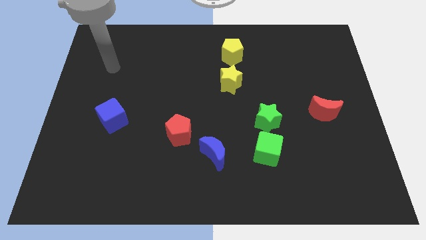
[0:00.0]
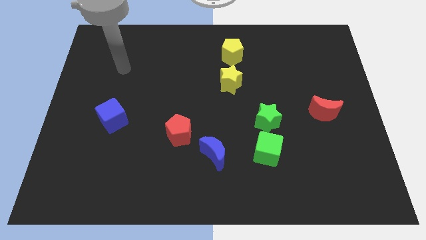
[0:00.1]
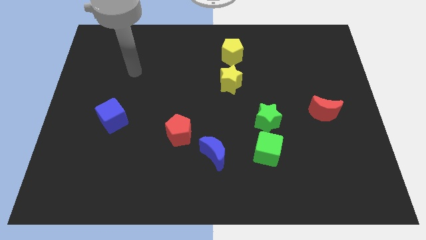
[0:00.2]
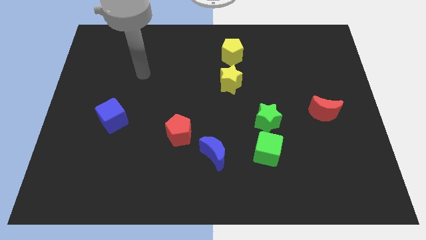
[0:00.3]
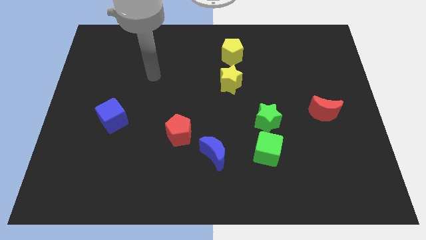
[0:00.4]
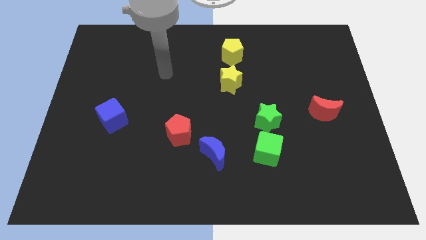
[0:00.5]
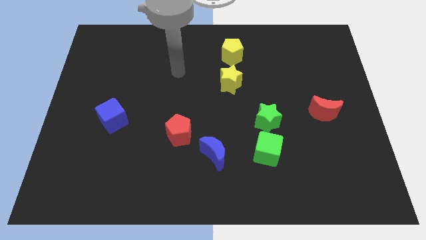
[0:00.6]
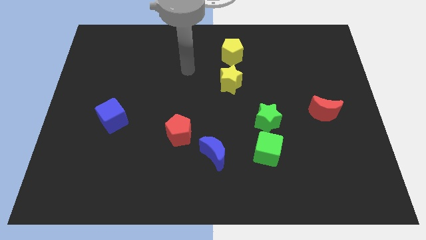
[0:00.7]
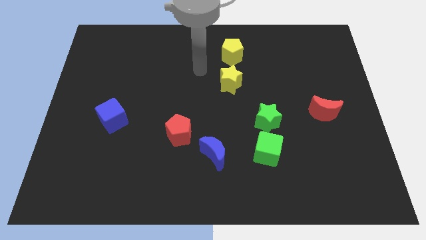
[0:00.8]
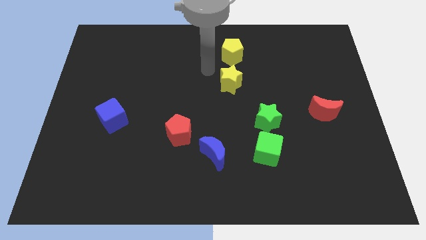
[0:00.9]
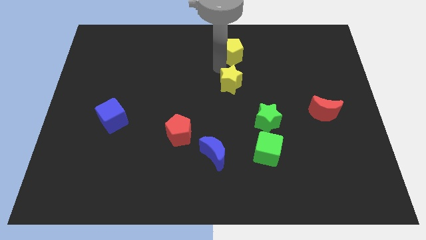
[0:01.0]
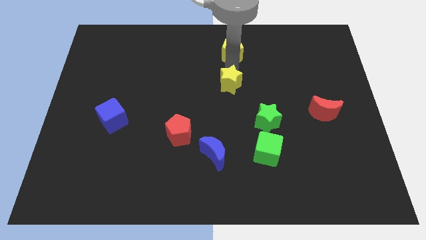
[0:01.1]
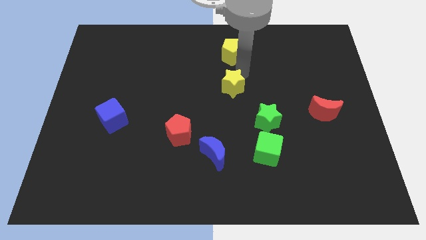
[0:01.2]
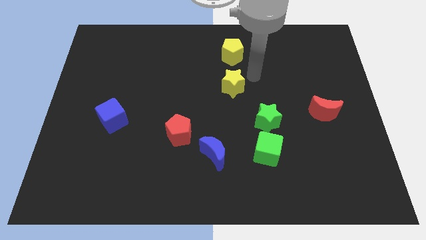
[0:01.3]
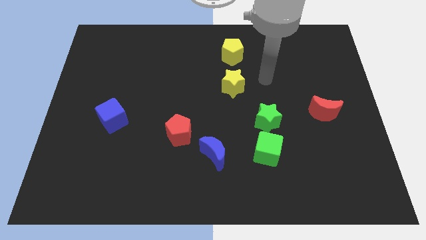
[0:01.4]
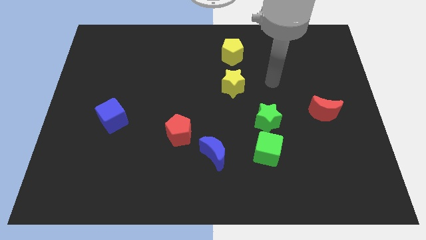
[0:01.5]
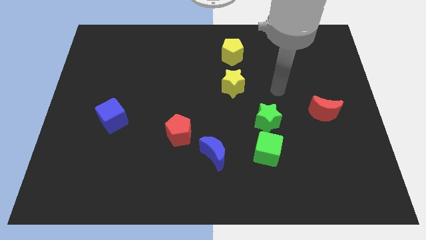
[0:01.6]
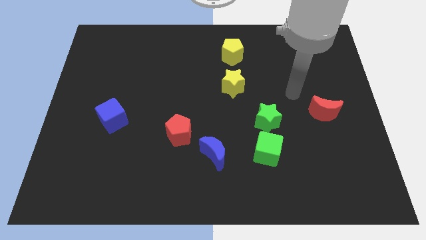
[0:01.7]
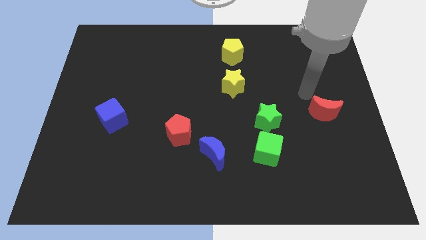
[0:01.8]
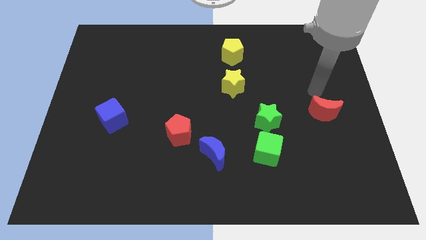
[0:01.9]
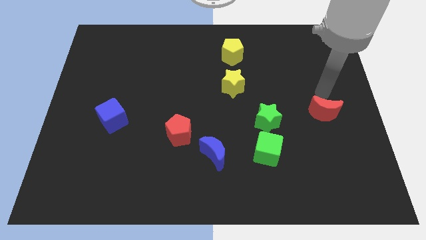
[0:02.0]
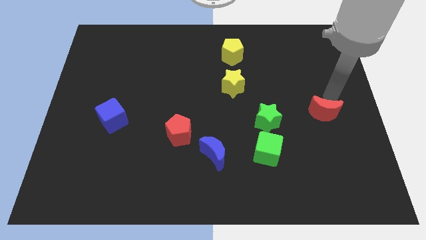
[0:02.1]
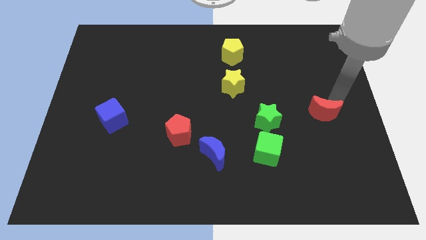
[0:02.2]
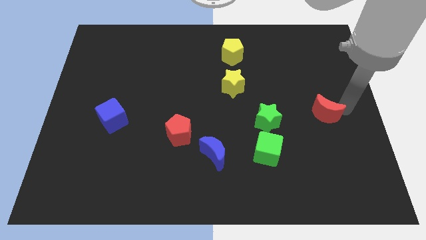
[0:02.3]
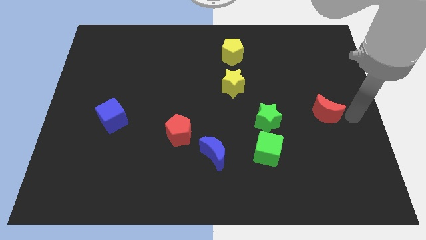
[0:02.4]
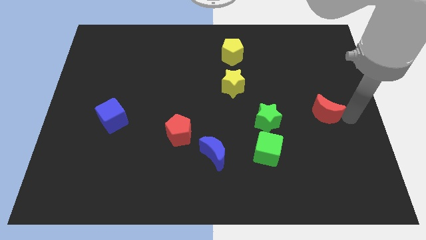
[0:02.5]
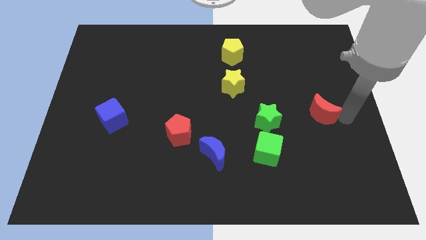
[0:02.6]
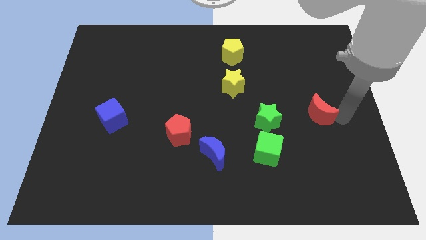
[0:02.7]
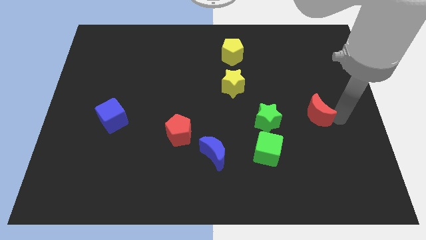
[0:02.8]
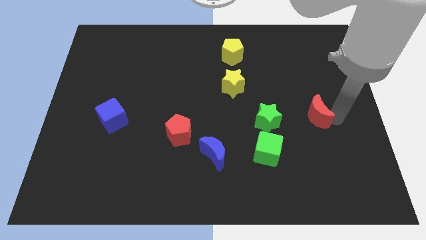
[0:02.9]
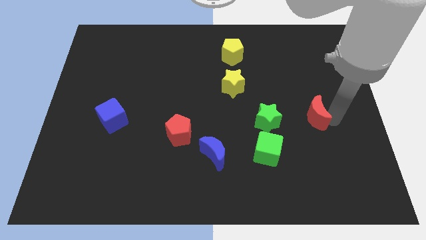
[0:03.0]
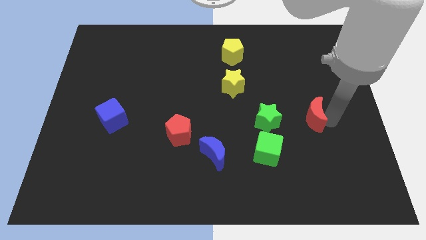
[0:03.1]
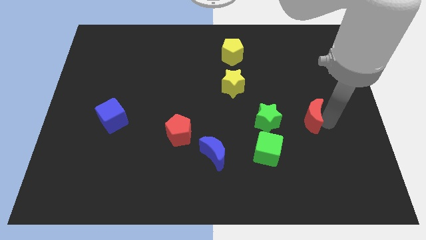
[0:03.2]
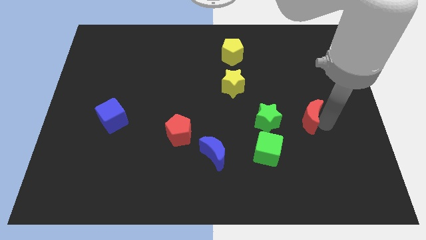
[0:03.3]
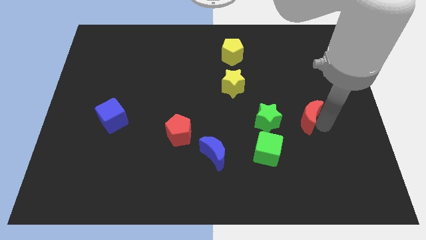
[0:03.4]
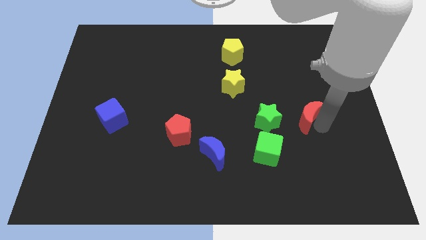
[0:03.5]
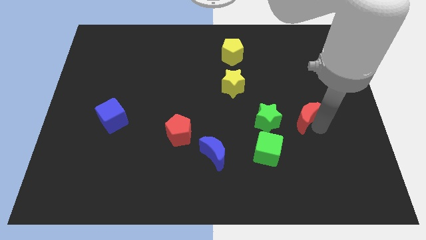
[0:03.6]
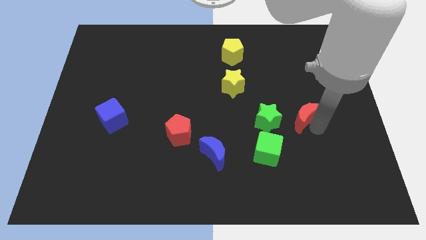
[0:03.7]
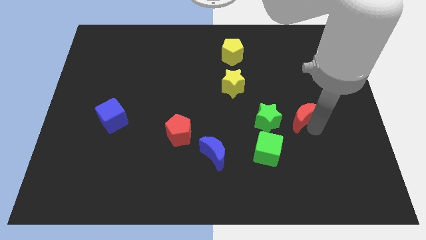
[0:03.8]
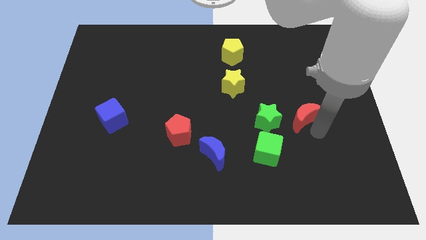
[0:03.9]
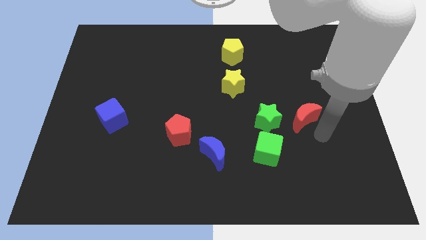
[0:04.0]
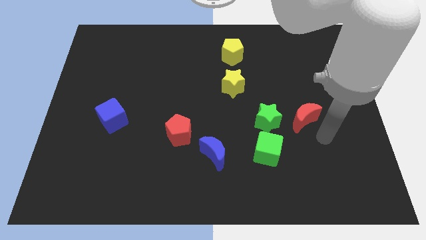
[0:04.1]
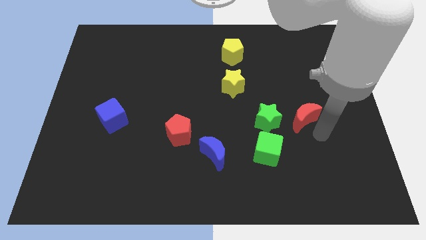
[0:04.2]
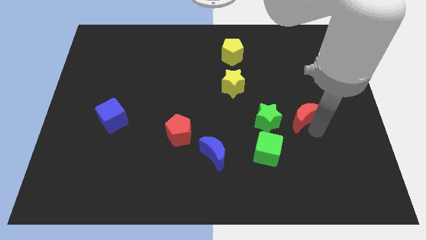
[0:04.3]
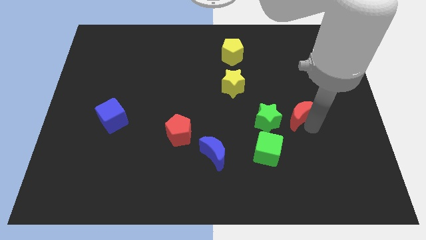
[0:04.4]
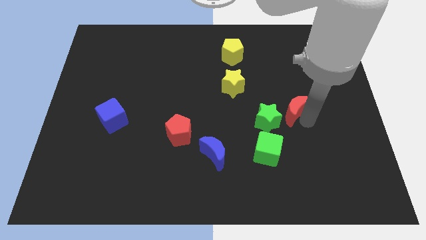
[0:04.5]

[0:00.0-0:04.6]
slide the red moon left a little bit

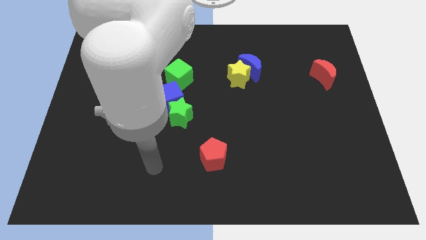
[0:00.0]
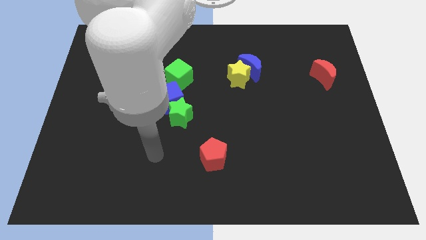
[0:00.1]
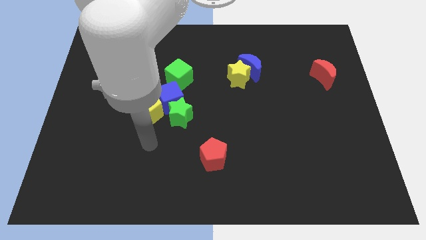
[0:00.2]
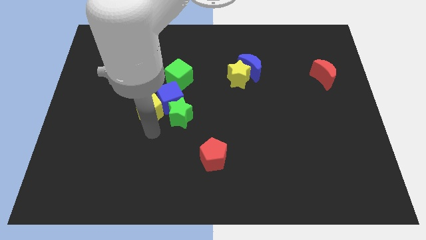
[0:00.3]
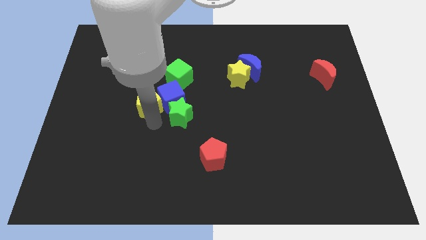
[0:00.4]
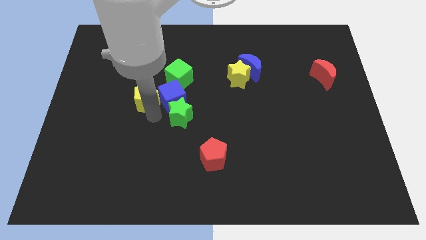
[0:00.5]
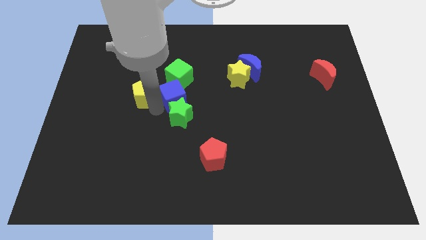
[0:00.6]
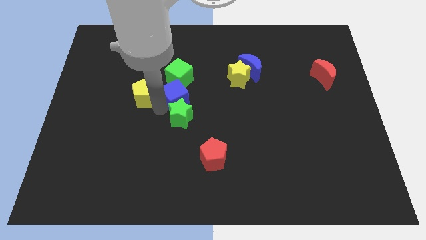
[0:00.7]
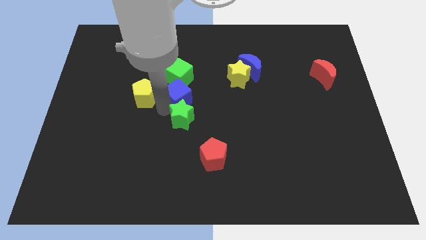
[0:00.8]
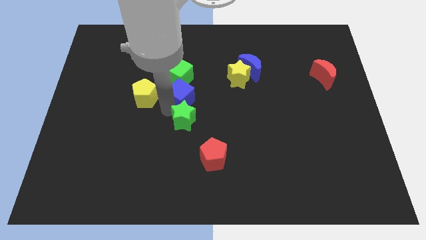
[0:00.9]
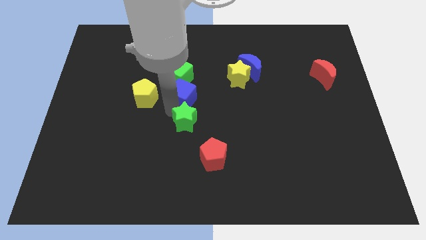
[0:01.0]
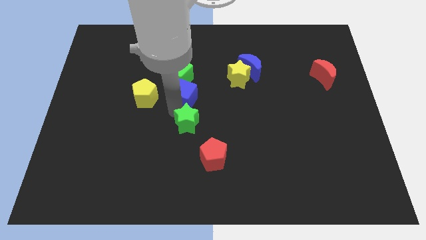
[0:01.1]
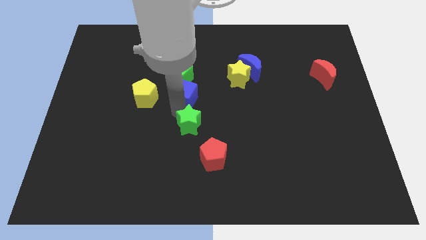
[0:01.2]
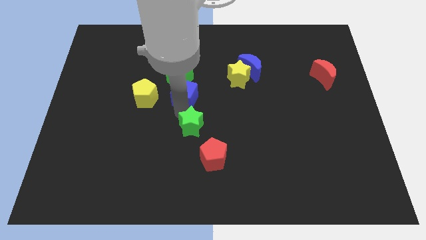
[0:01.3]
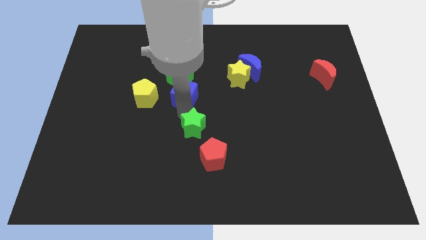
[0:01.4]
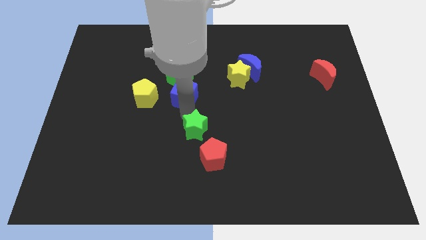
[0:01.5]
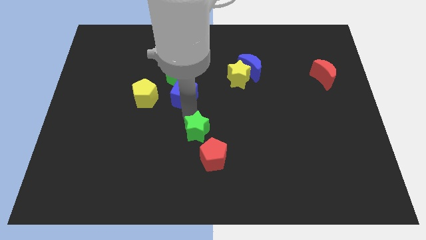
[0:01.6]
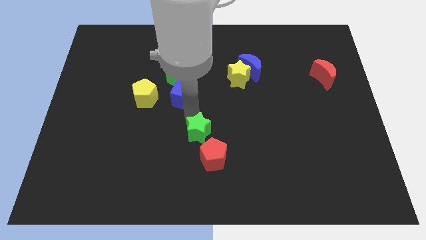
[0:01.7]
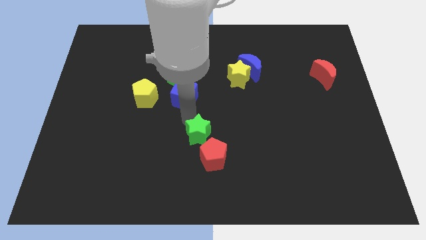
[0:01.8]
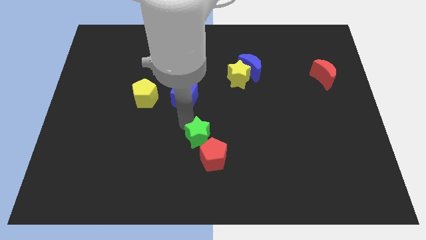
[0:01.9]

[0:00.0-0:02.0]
slide the green star down and to the right diagonally a little

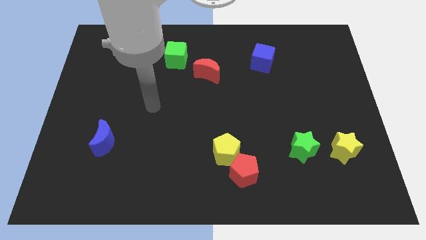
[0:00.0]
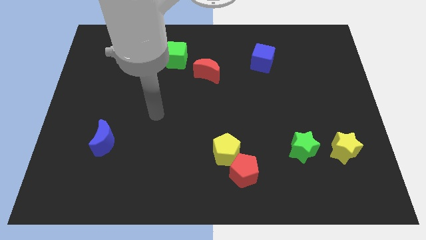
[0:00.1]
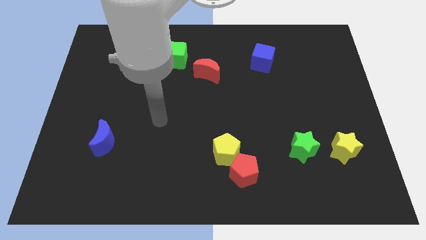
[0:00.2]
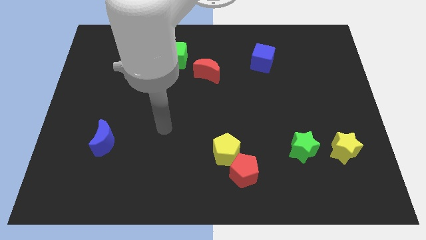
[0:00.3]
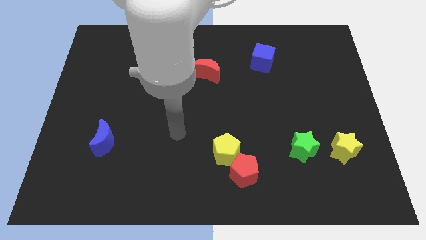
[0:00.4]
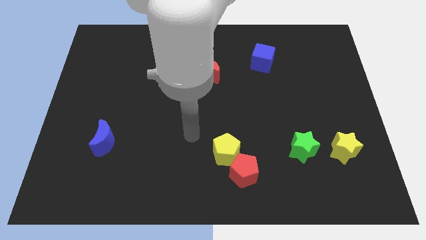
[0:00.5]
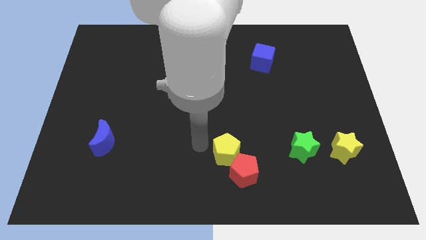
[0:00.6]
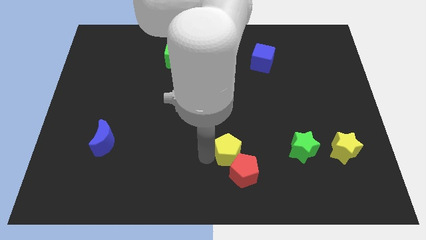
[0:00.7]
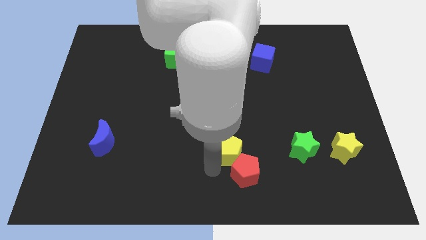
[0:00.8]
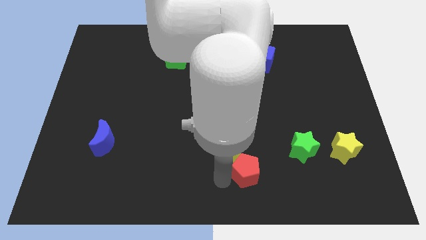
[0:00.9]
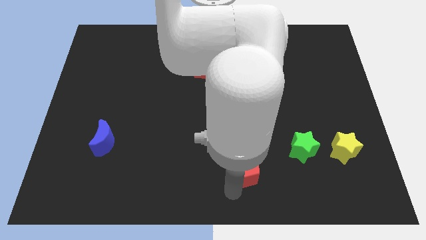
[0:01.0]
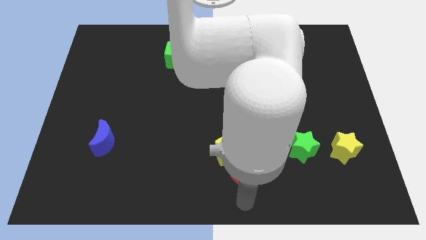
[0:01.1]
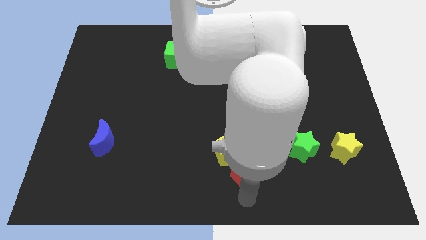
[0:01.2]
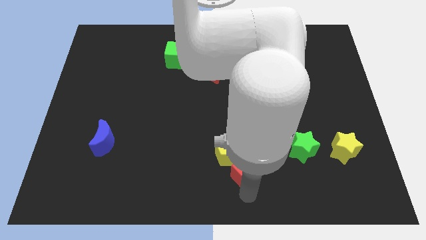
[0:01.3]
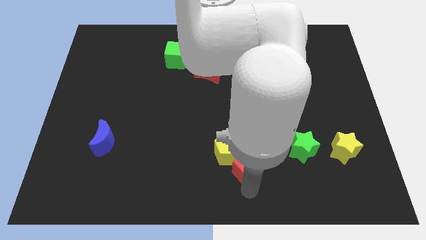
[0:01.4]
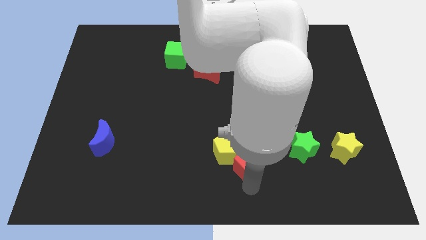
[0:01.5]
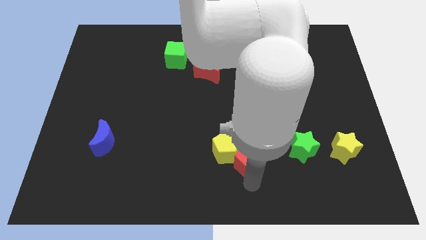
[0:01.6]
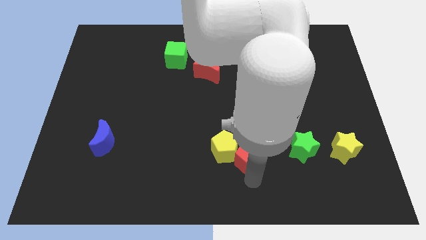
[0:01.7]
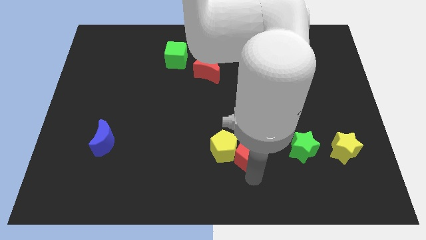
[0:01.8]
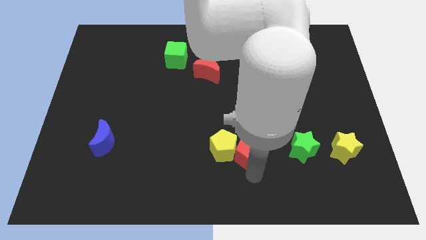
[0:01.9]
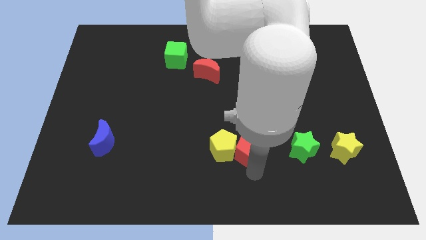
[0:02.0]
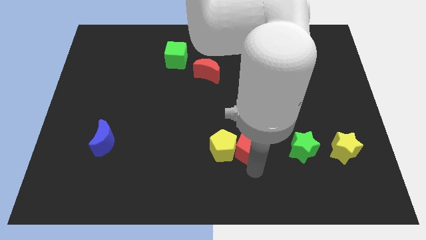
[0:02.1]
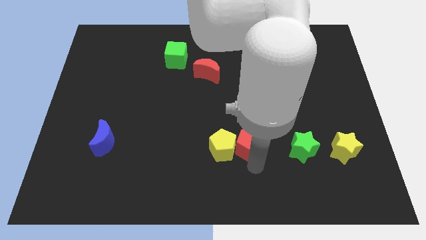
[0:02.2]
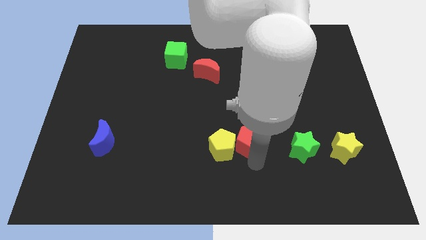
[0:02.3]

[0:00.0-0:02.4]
slightly move the red pentagon up
